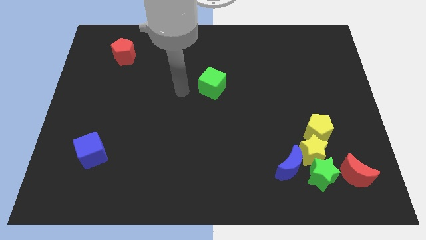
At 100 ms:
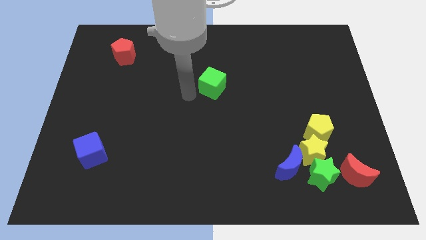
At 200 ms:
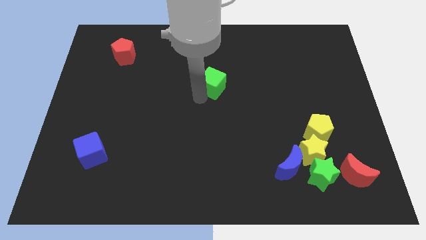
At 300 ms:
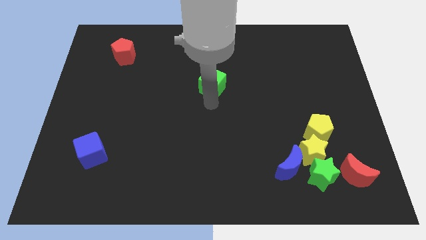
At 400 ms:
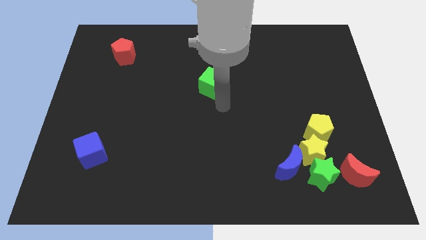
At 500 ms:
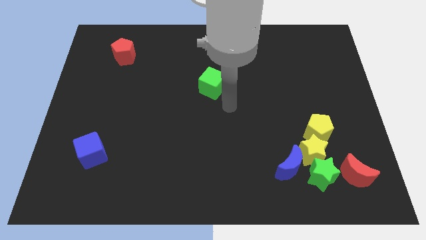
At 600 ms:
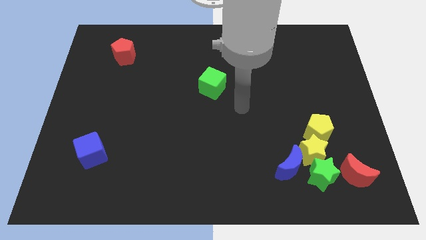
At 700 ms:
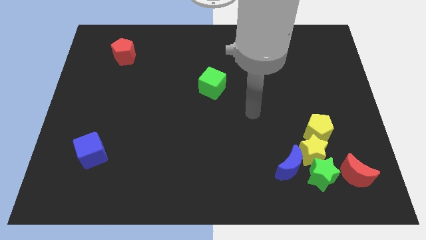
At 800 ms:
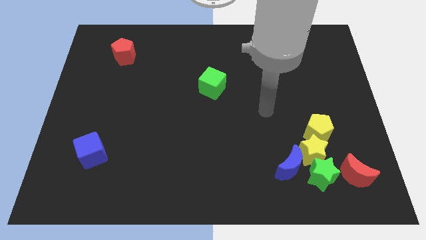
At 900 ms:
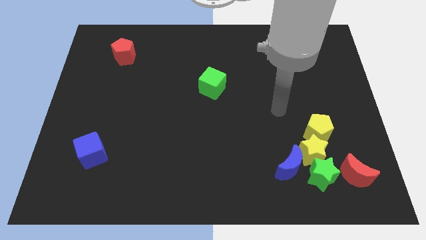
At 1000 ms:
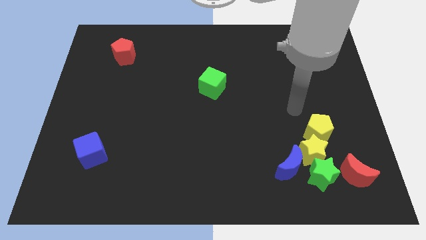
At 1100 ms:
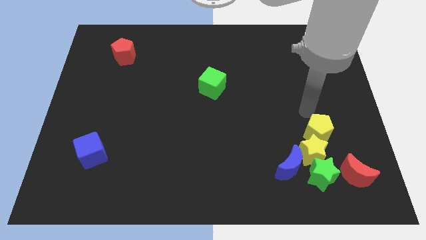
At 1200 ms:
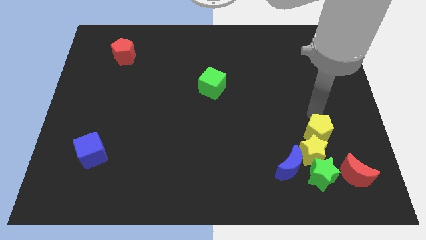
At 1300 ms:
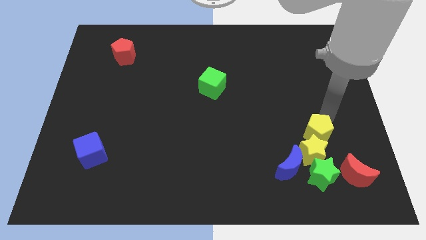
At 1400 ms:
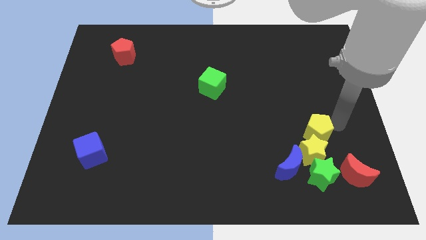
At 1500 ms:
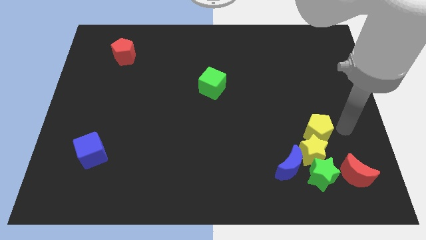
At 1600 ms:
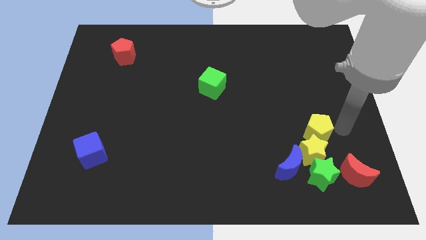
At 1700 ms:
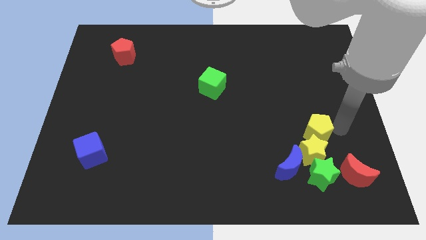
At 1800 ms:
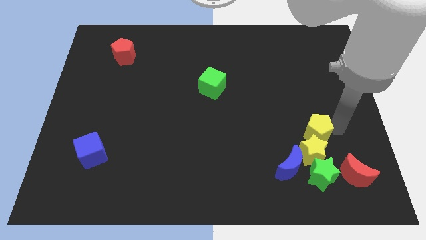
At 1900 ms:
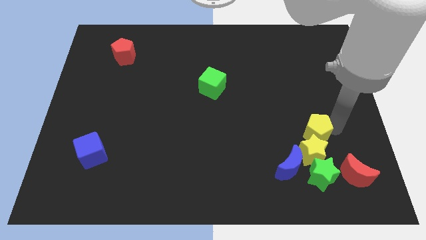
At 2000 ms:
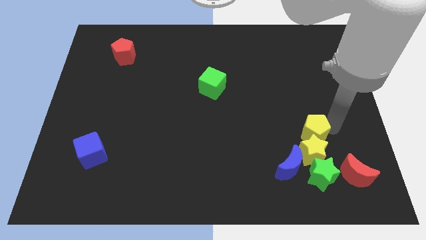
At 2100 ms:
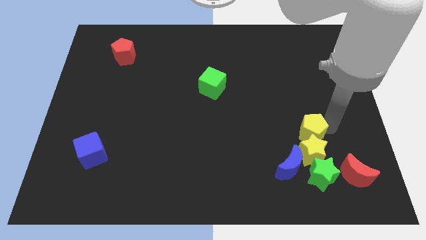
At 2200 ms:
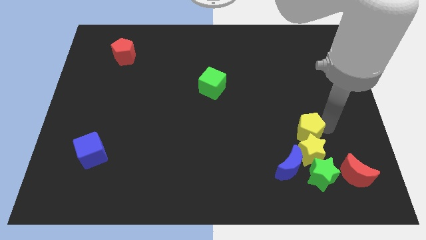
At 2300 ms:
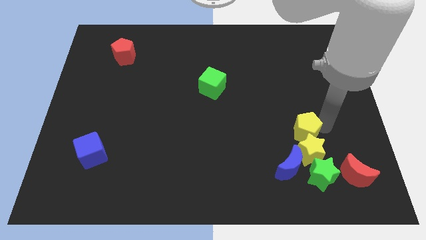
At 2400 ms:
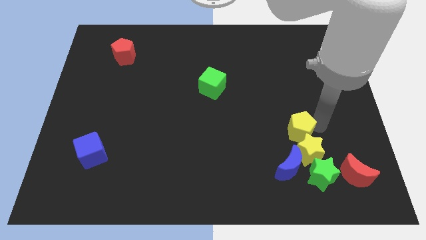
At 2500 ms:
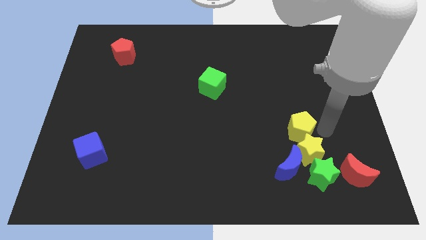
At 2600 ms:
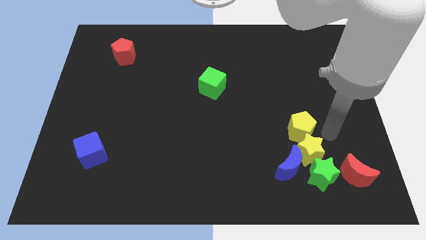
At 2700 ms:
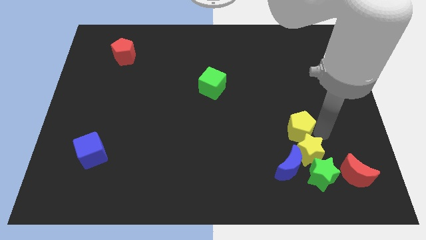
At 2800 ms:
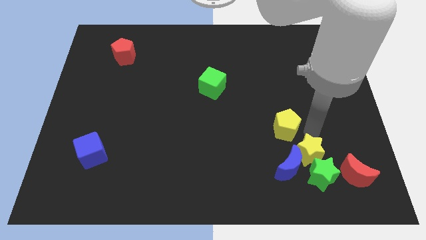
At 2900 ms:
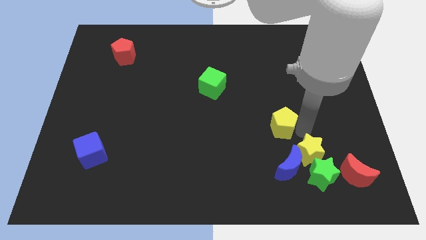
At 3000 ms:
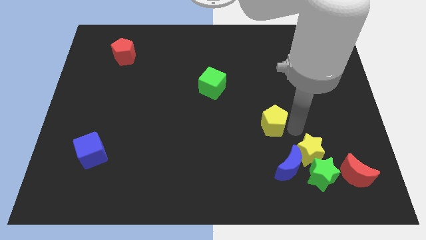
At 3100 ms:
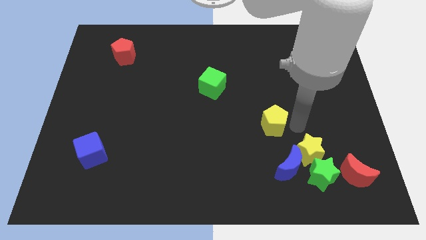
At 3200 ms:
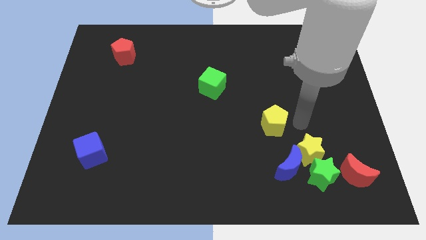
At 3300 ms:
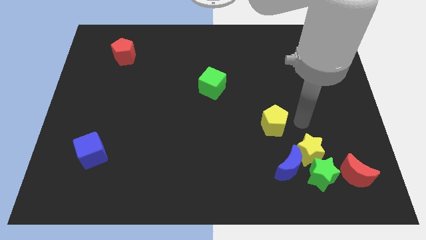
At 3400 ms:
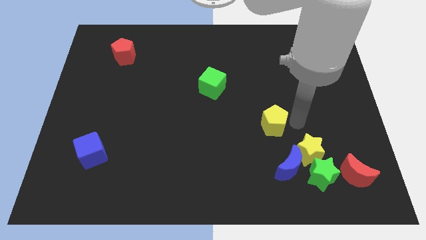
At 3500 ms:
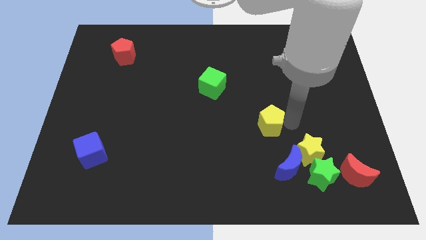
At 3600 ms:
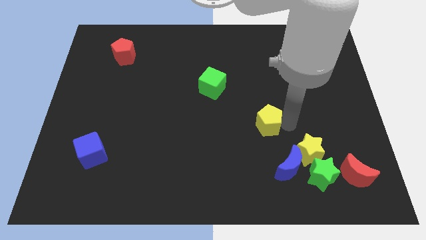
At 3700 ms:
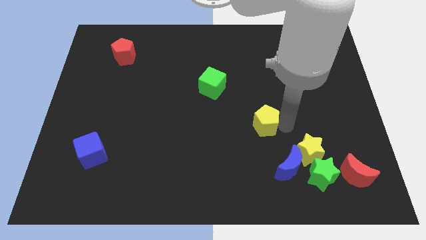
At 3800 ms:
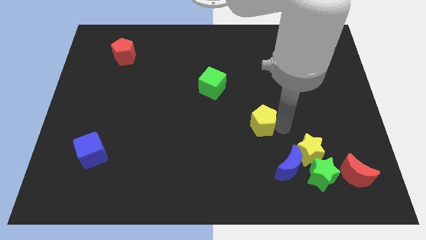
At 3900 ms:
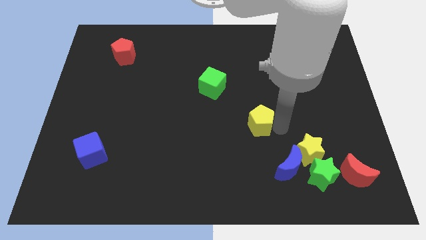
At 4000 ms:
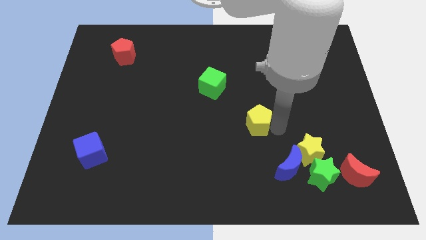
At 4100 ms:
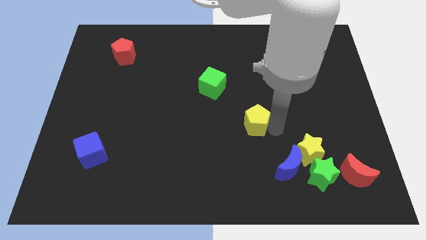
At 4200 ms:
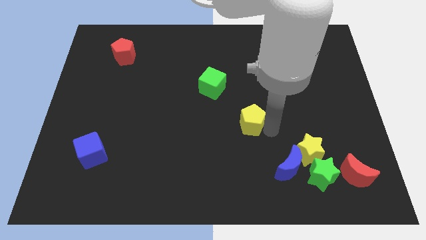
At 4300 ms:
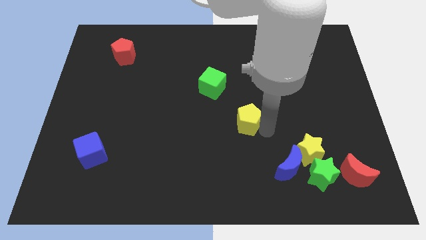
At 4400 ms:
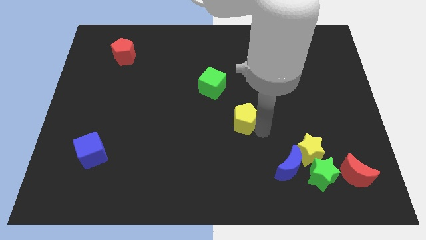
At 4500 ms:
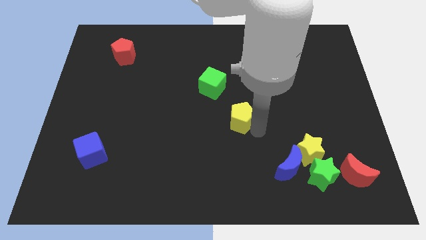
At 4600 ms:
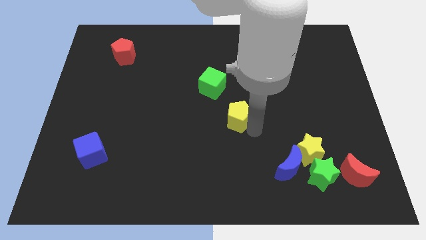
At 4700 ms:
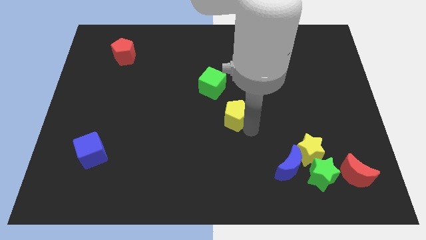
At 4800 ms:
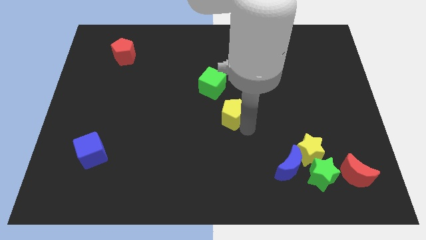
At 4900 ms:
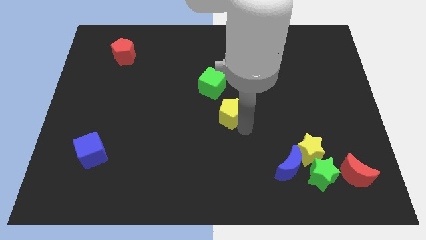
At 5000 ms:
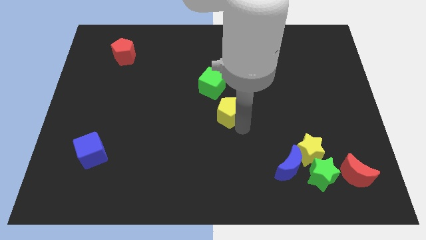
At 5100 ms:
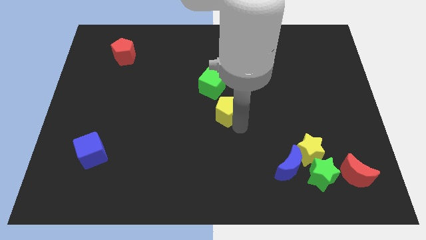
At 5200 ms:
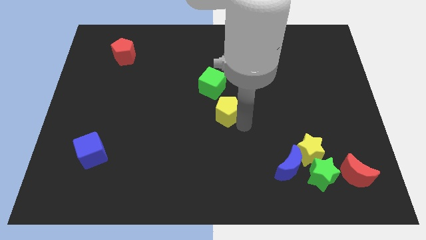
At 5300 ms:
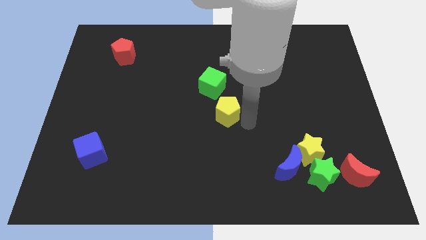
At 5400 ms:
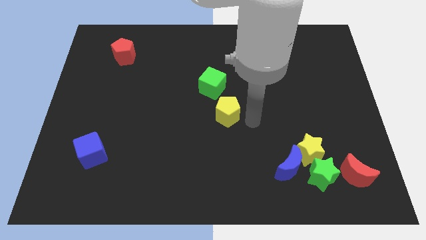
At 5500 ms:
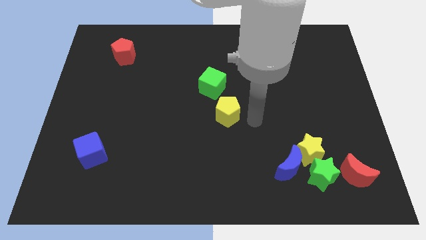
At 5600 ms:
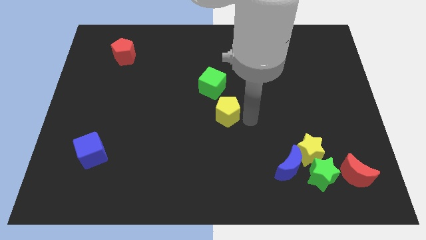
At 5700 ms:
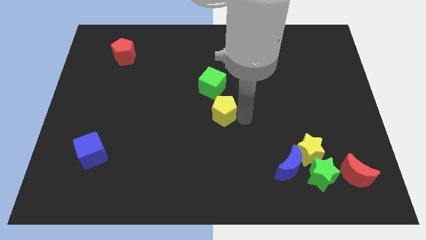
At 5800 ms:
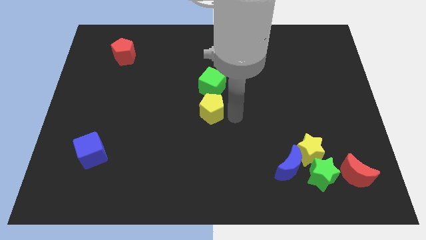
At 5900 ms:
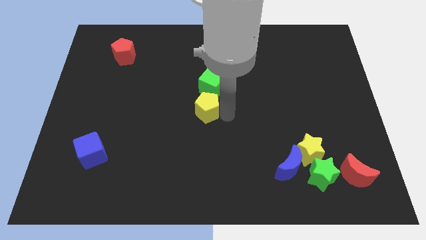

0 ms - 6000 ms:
slide the yellow pentagon diagonally down and to the left of the green cube

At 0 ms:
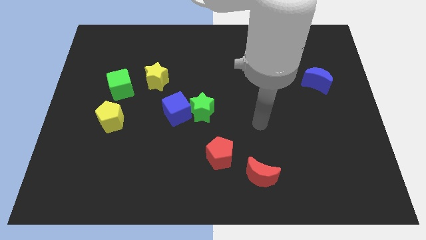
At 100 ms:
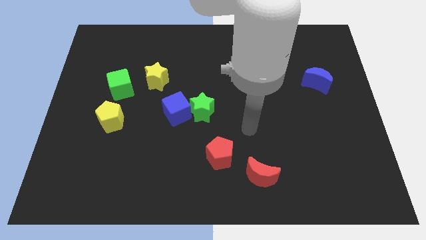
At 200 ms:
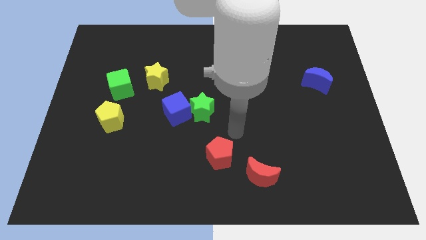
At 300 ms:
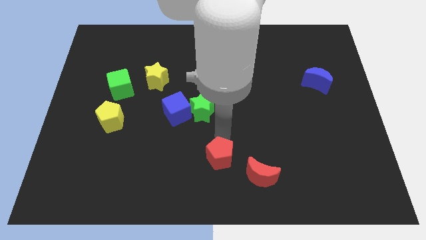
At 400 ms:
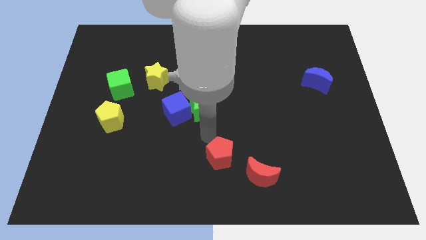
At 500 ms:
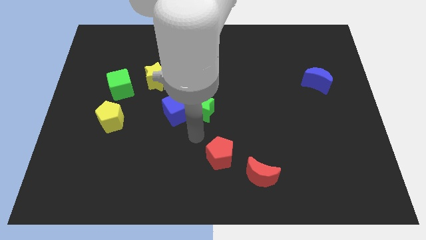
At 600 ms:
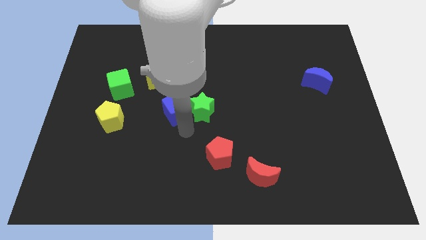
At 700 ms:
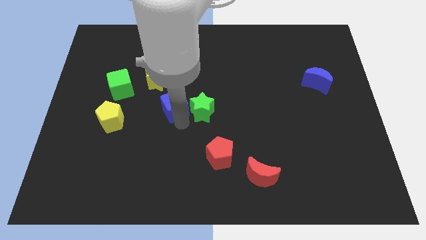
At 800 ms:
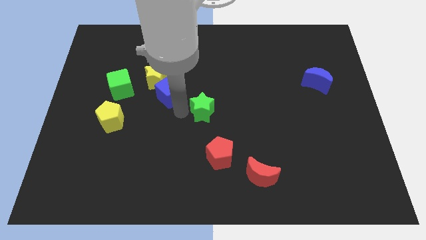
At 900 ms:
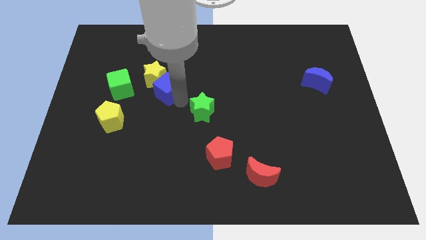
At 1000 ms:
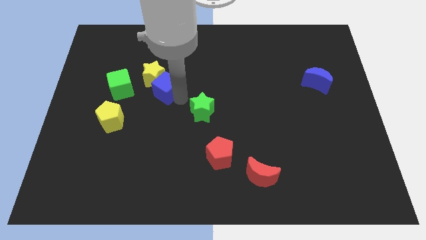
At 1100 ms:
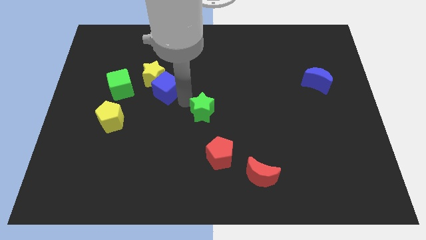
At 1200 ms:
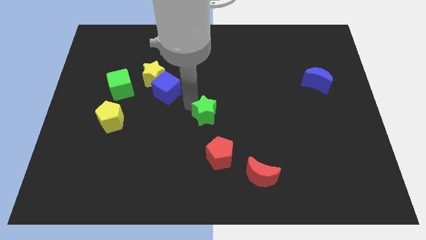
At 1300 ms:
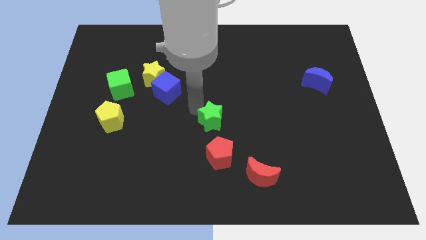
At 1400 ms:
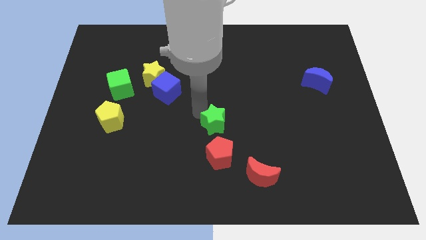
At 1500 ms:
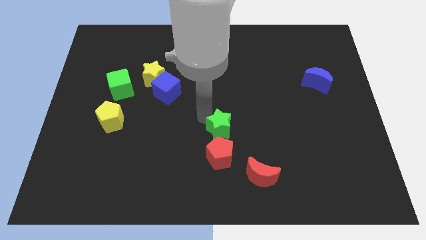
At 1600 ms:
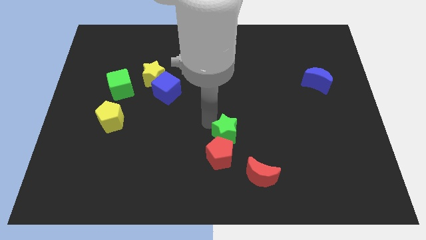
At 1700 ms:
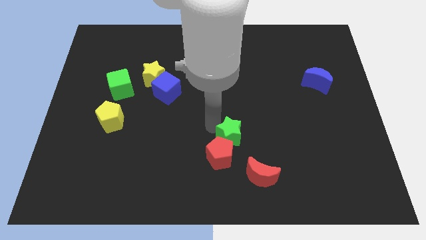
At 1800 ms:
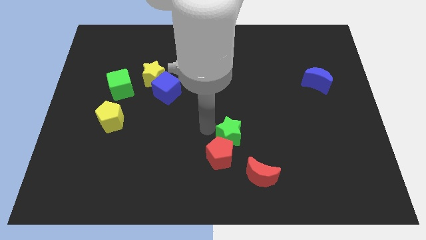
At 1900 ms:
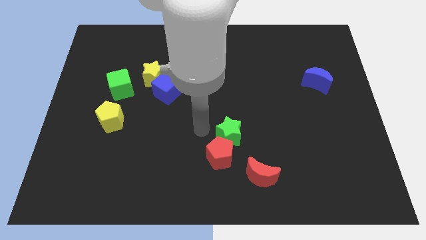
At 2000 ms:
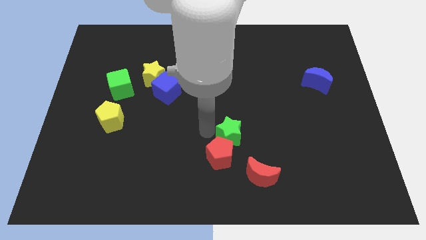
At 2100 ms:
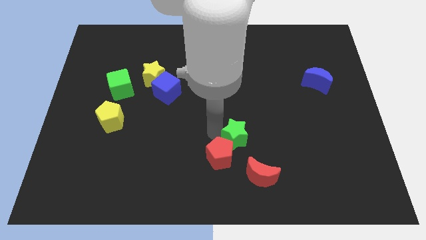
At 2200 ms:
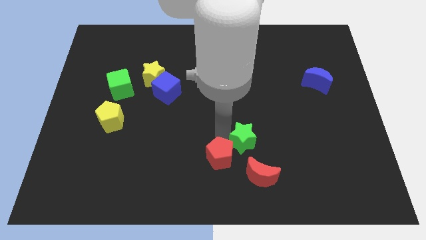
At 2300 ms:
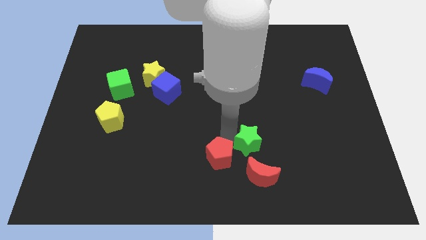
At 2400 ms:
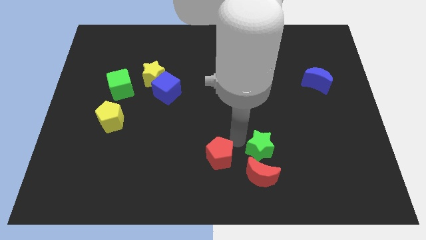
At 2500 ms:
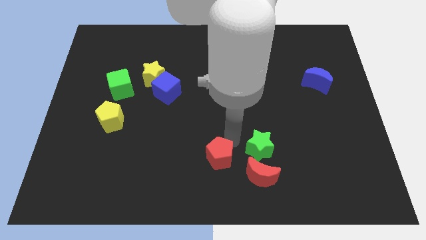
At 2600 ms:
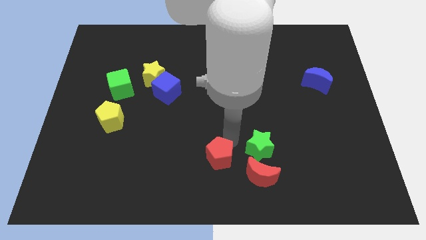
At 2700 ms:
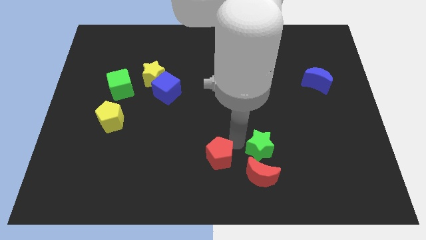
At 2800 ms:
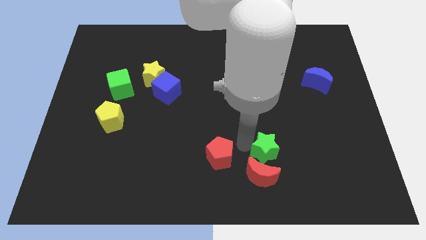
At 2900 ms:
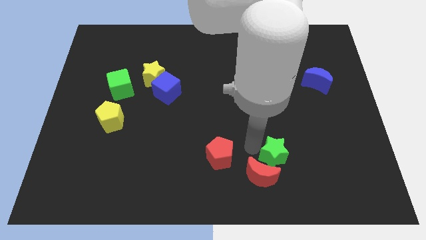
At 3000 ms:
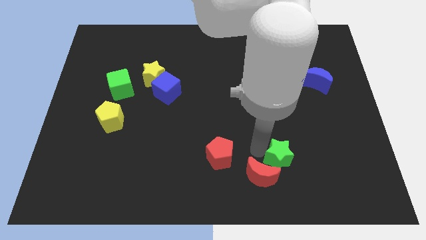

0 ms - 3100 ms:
slide the green star to the right of the red moon
